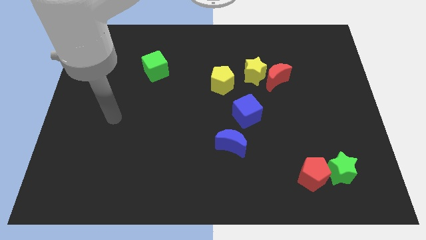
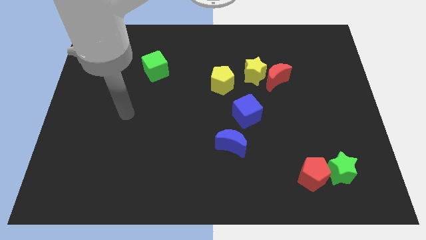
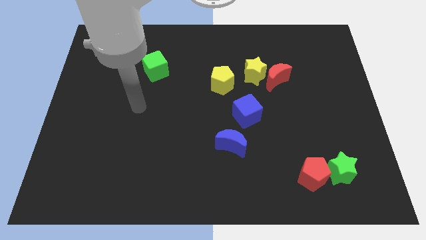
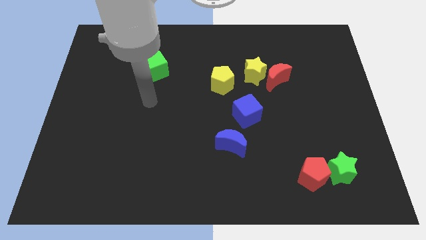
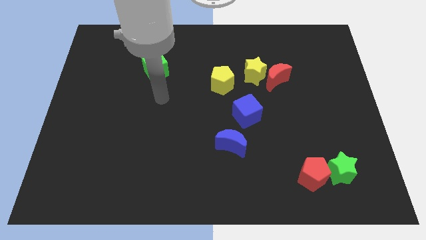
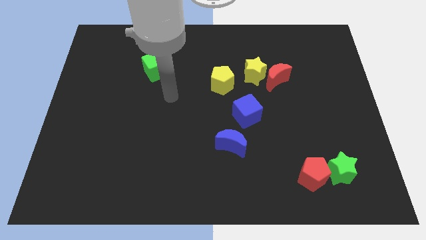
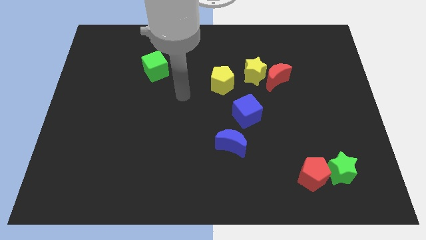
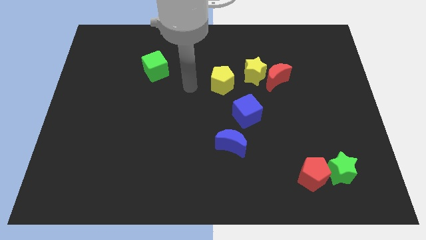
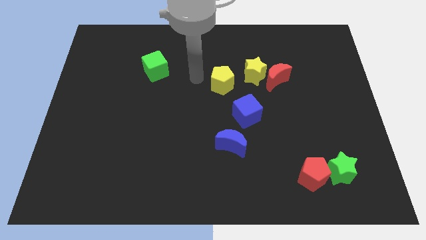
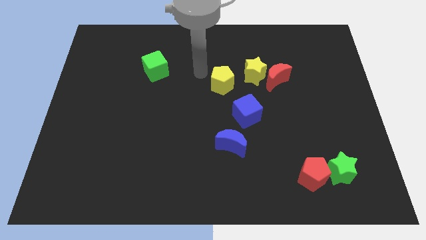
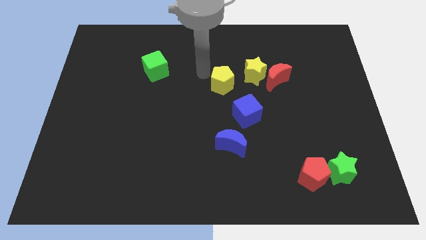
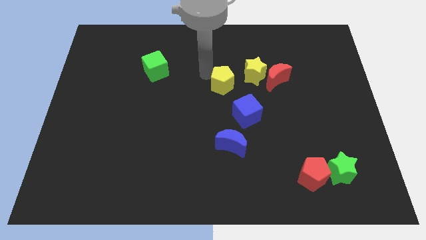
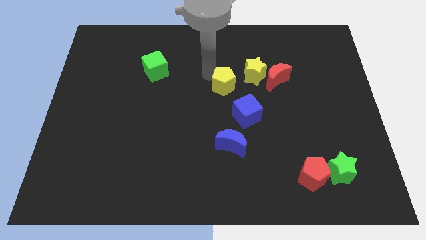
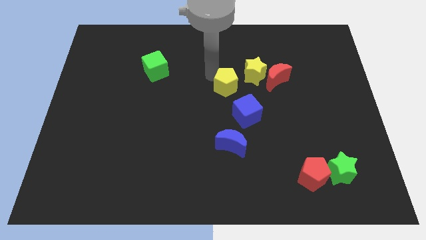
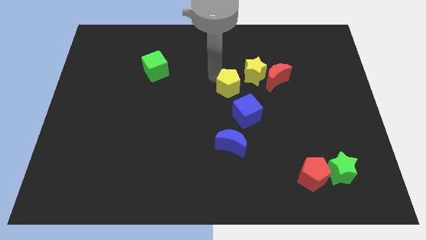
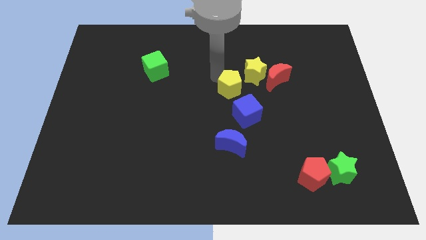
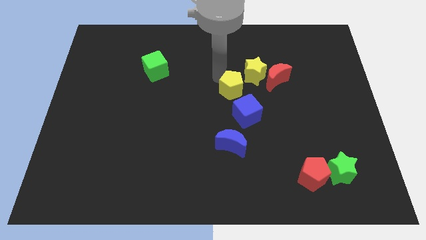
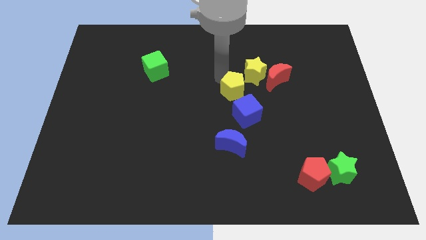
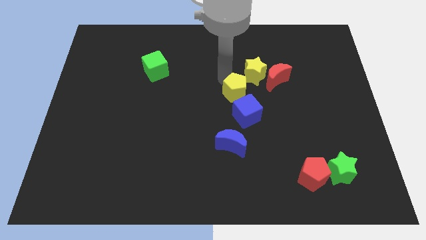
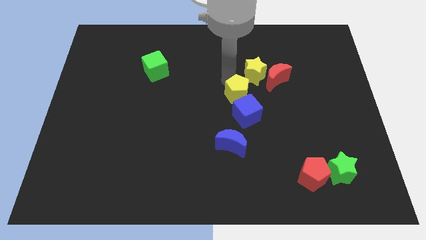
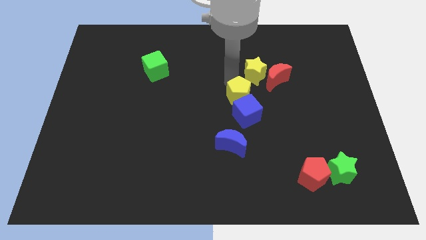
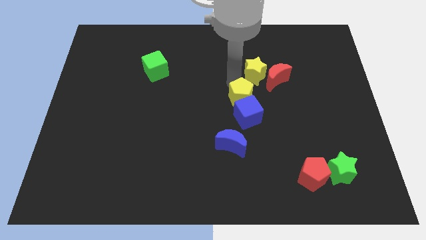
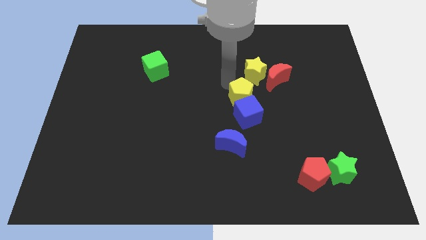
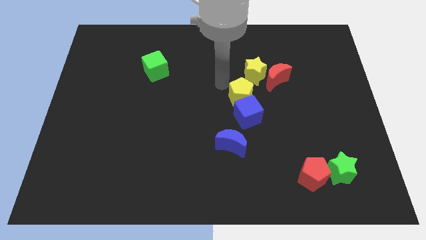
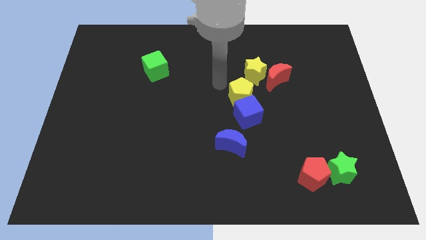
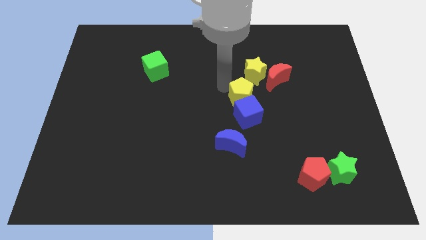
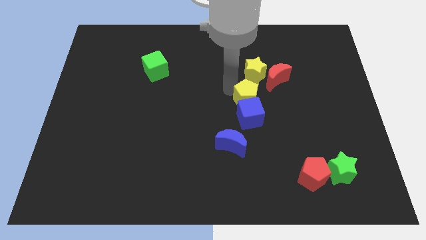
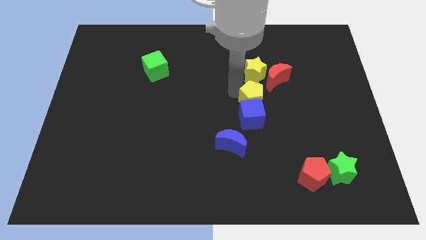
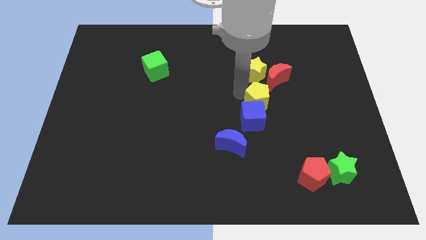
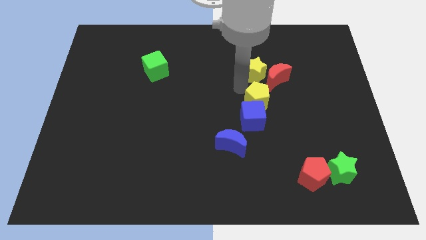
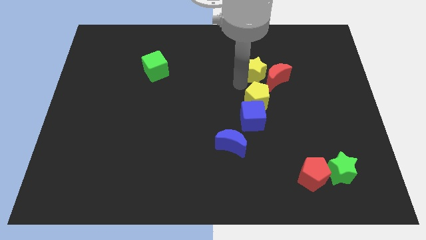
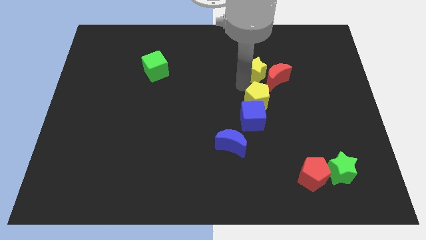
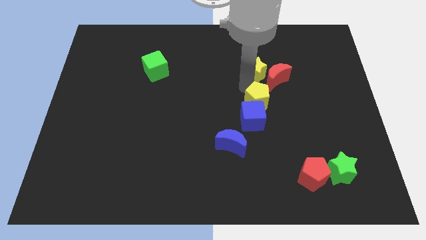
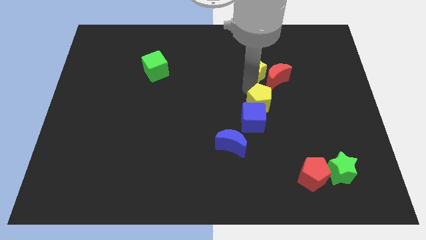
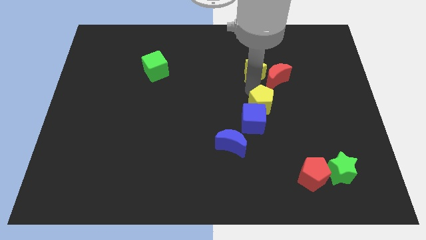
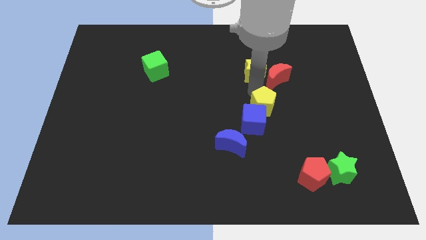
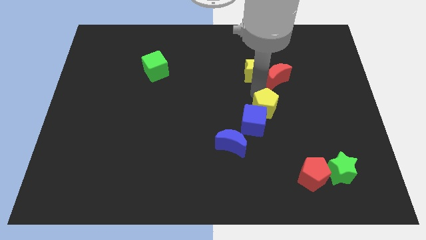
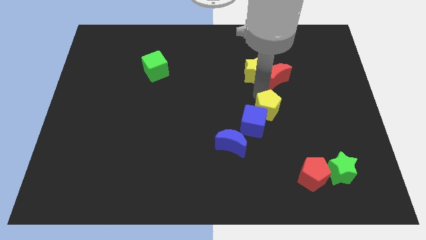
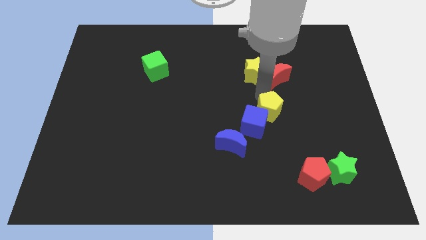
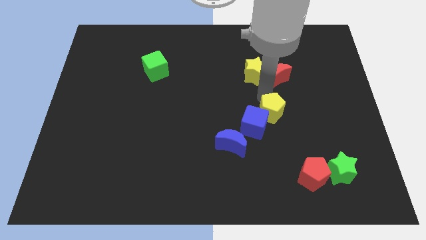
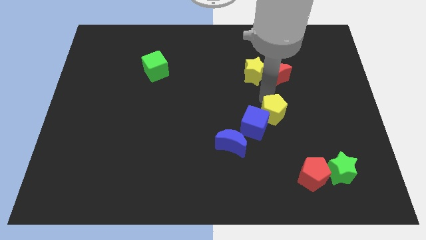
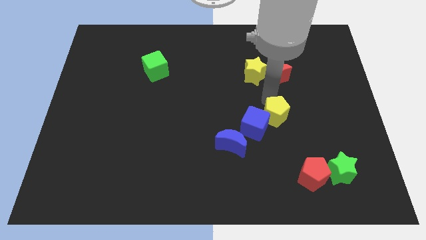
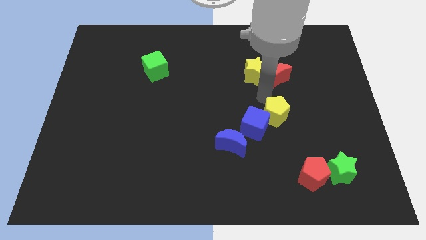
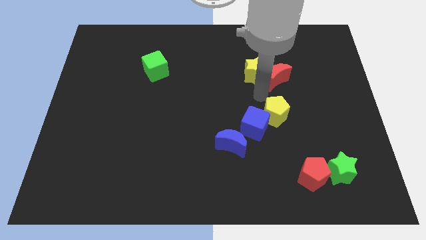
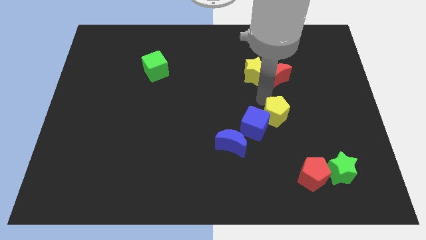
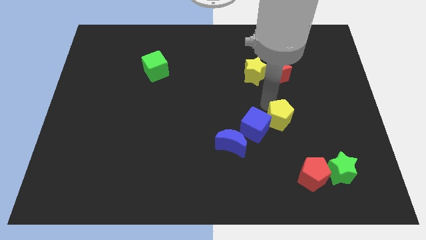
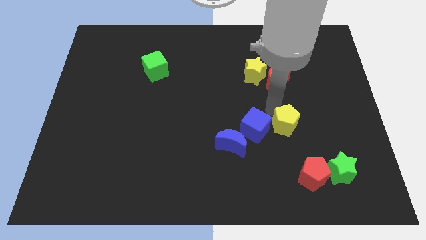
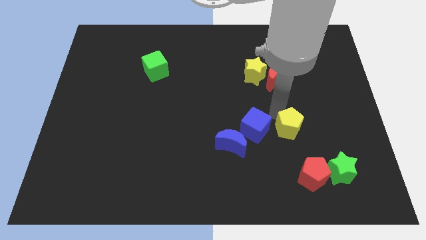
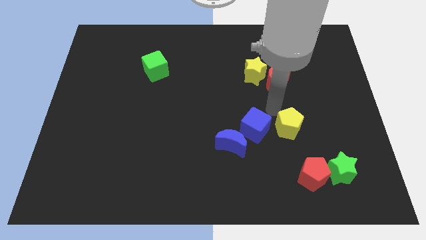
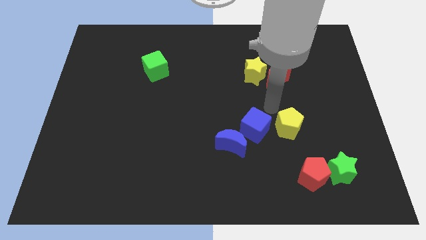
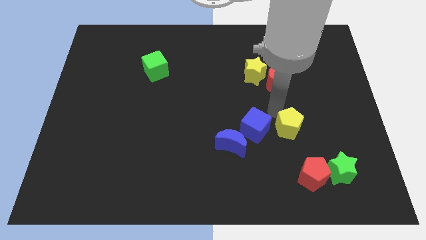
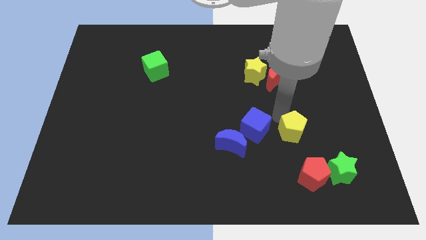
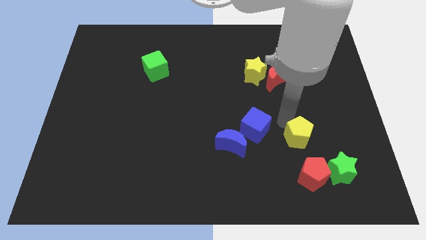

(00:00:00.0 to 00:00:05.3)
push the yellow pentagon to the top left side of the green star
